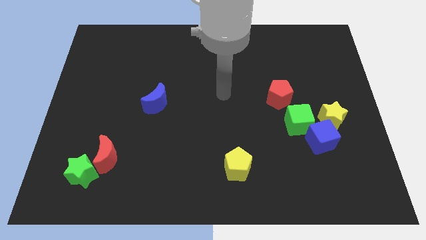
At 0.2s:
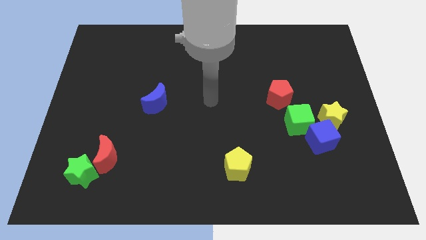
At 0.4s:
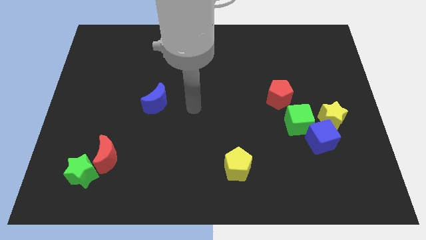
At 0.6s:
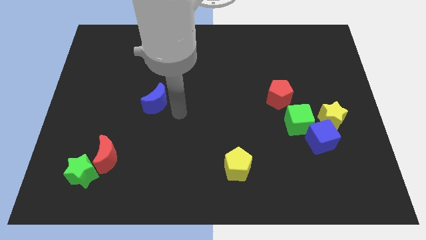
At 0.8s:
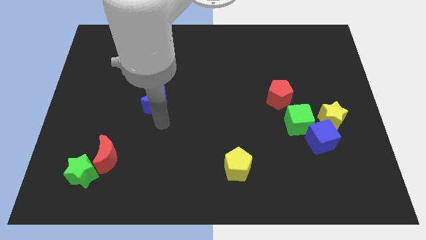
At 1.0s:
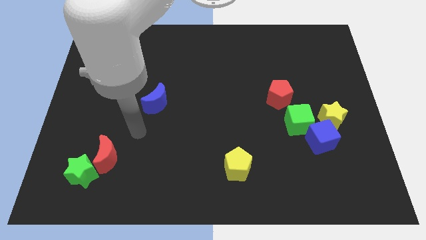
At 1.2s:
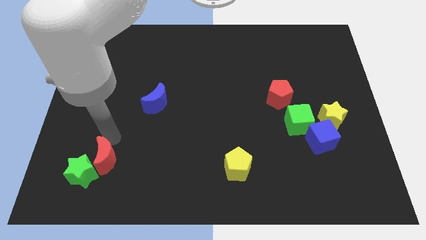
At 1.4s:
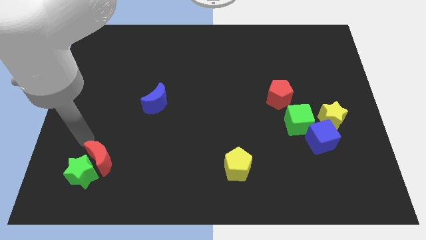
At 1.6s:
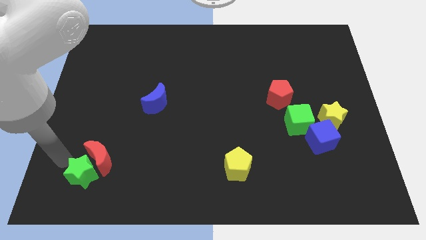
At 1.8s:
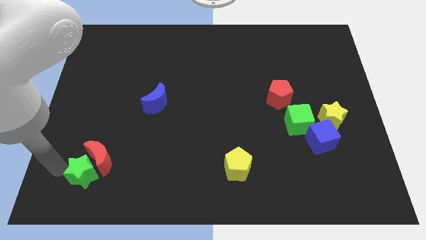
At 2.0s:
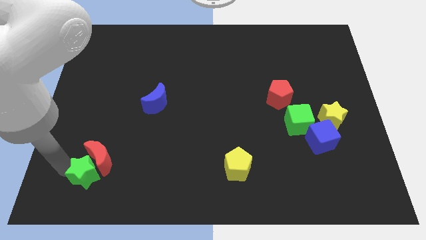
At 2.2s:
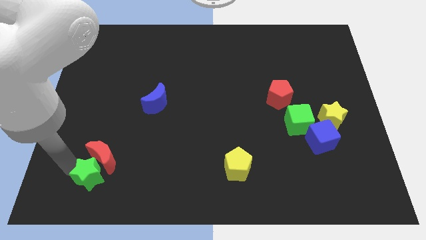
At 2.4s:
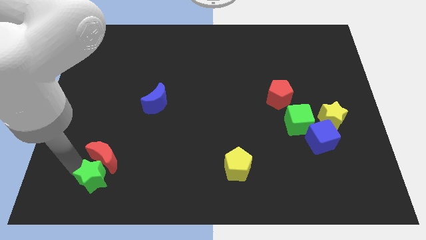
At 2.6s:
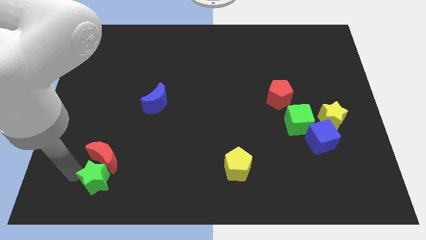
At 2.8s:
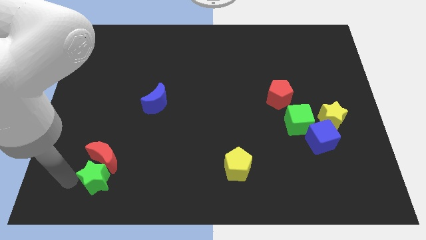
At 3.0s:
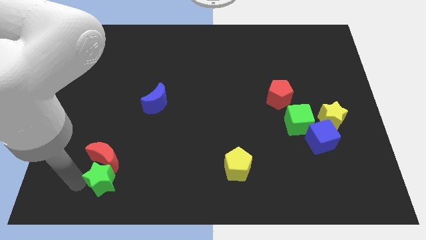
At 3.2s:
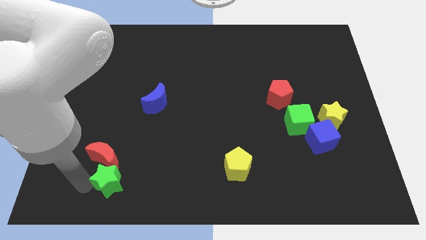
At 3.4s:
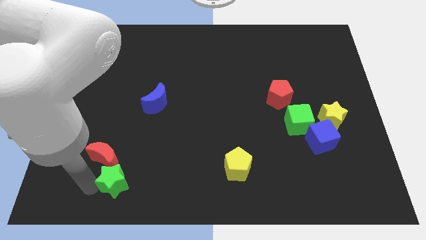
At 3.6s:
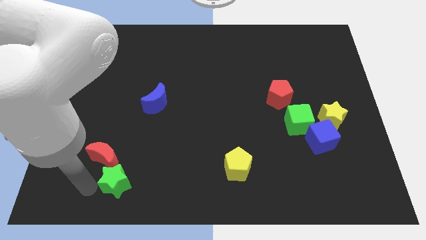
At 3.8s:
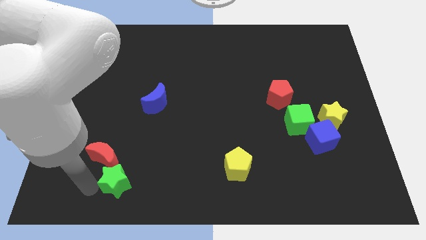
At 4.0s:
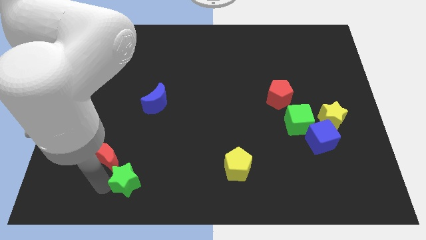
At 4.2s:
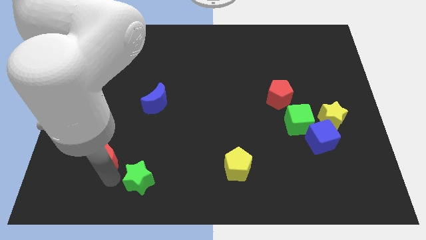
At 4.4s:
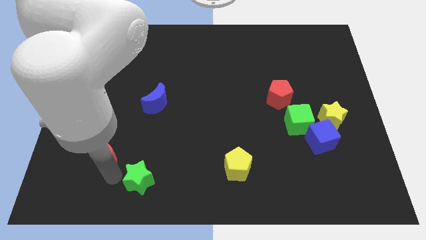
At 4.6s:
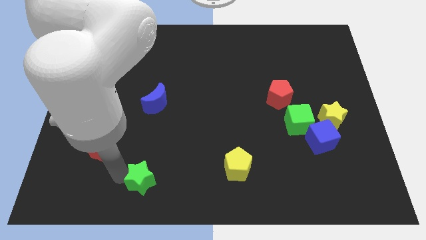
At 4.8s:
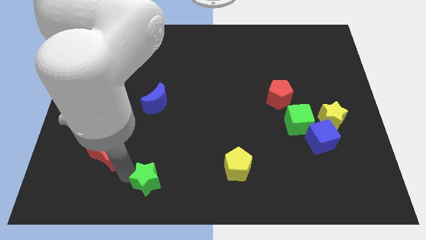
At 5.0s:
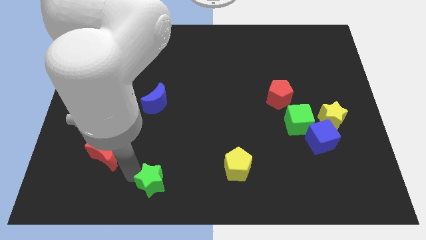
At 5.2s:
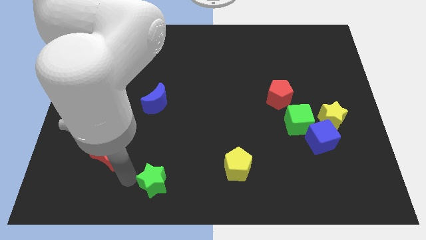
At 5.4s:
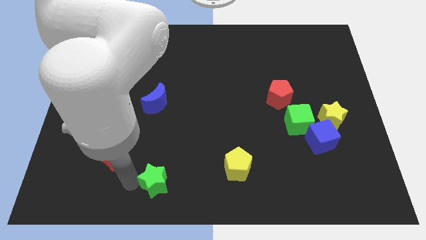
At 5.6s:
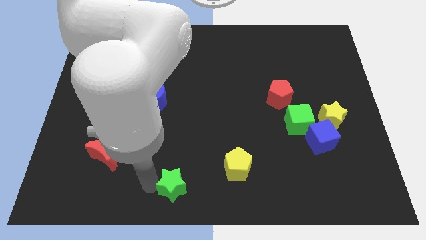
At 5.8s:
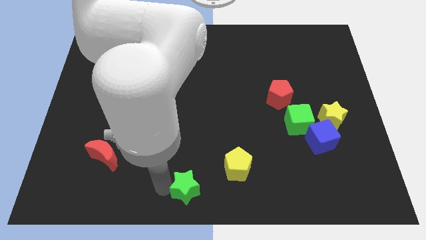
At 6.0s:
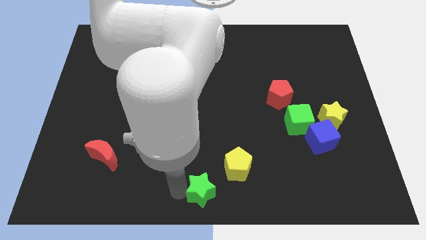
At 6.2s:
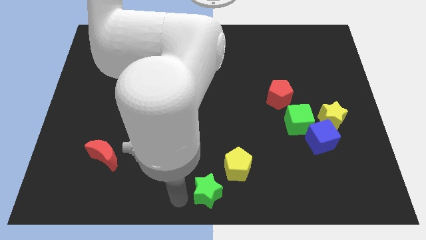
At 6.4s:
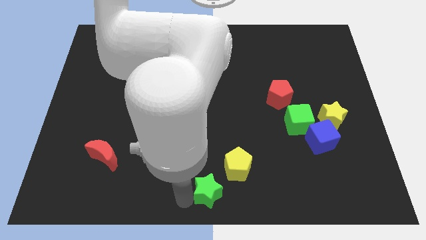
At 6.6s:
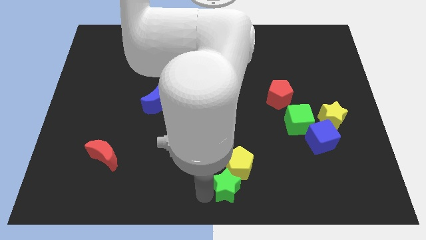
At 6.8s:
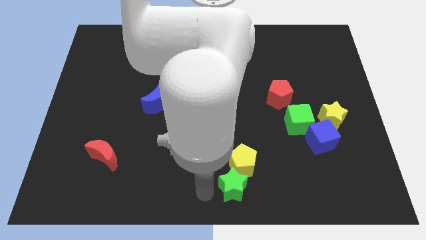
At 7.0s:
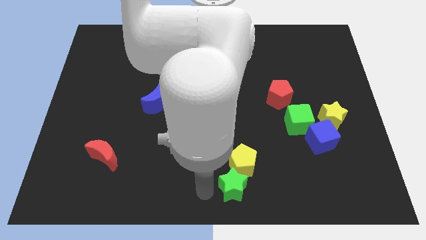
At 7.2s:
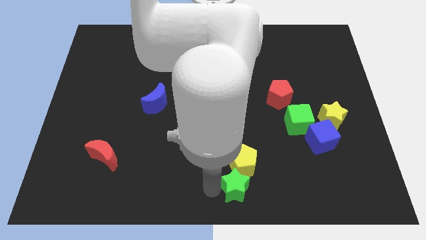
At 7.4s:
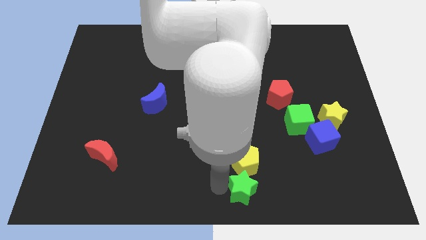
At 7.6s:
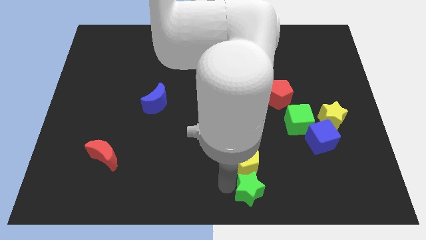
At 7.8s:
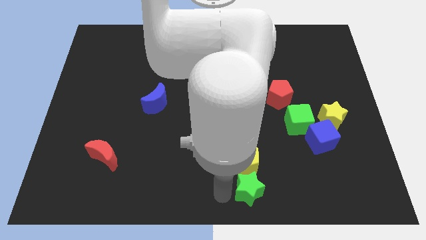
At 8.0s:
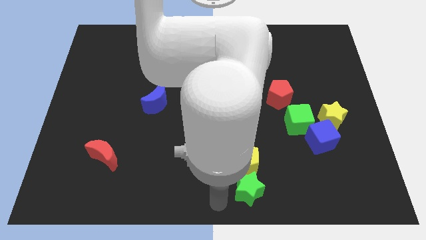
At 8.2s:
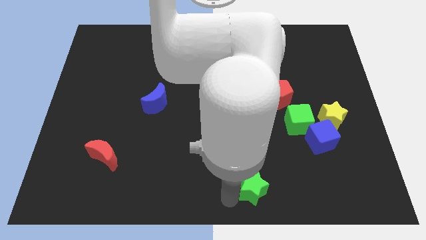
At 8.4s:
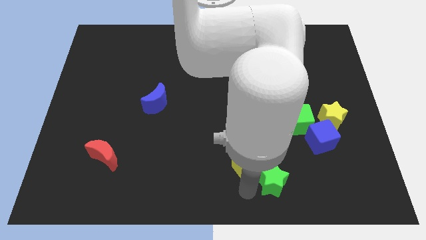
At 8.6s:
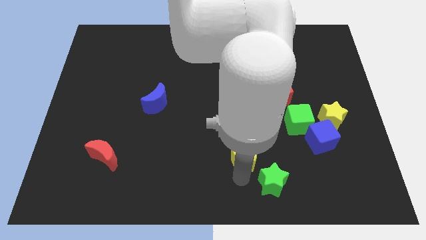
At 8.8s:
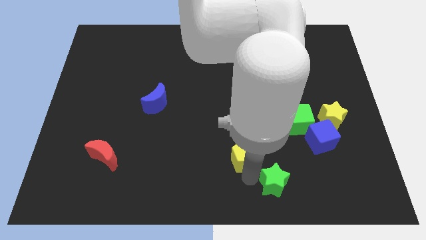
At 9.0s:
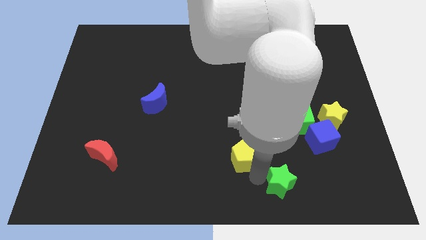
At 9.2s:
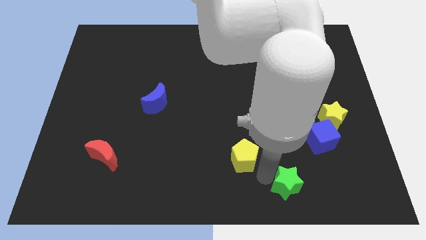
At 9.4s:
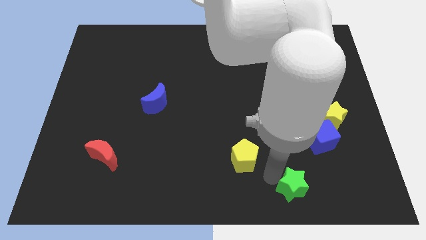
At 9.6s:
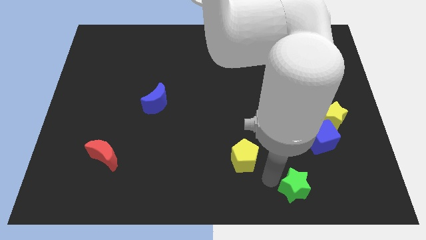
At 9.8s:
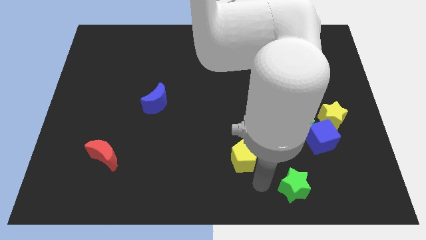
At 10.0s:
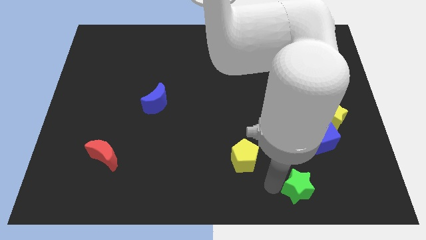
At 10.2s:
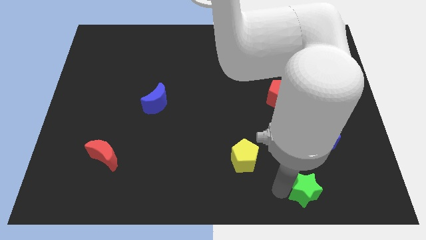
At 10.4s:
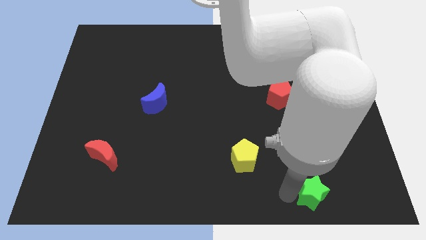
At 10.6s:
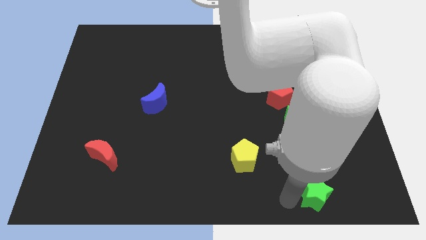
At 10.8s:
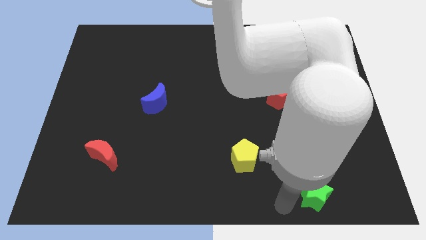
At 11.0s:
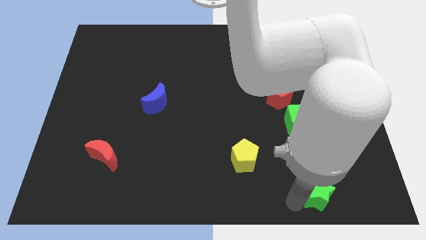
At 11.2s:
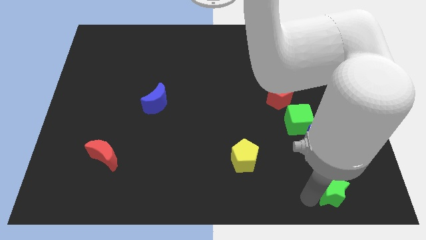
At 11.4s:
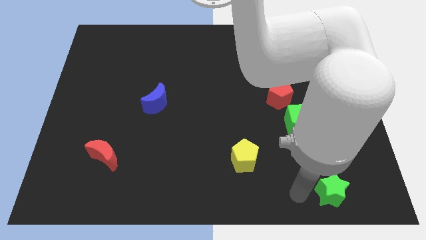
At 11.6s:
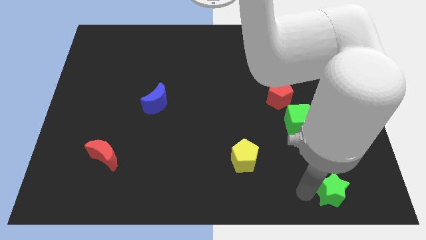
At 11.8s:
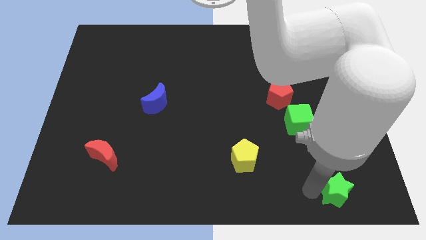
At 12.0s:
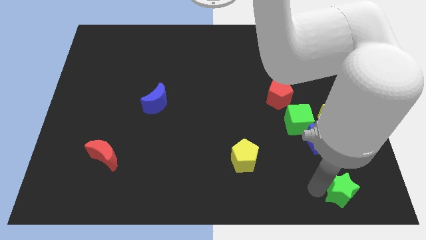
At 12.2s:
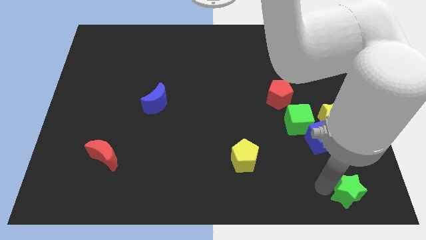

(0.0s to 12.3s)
move the green star to the bottom right
